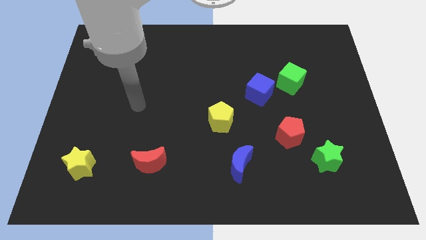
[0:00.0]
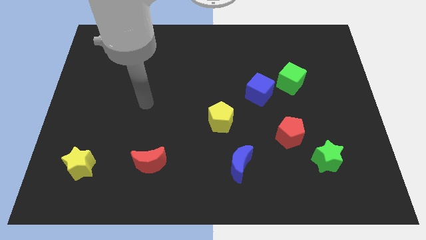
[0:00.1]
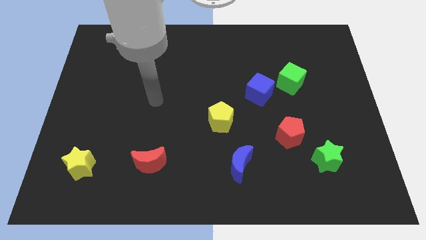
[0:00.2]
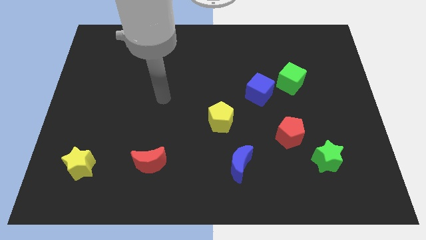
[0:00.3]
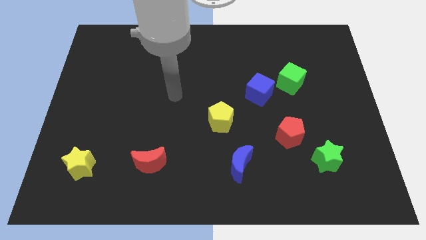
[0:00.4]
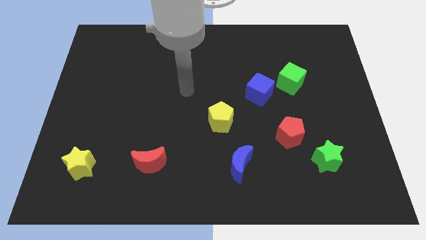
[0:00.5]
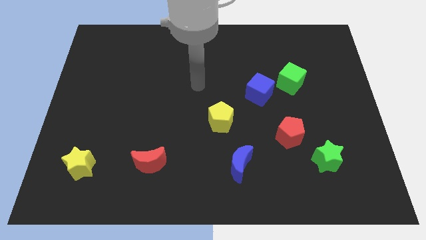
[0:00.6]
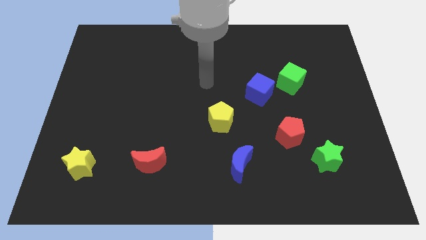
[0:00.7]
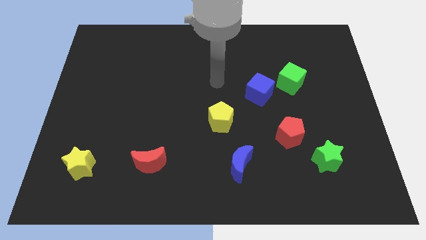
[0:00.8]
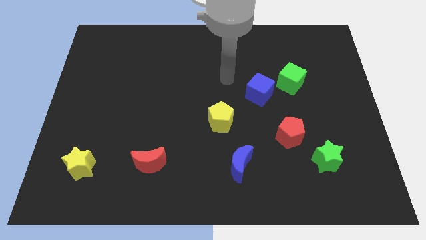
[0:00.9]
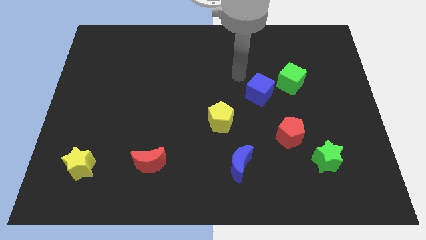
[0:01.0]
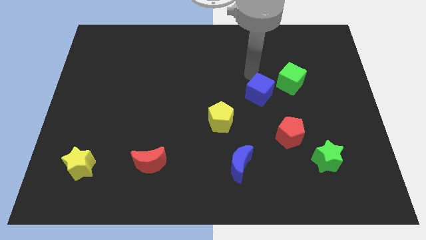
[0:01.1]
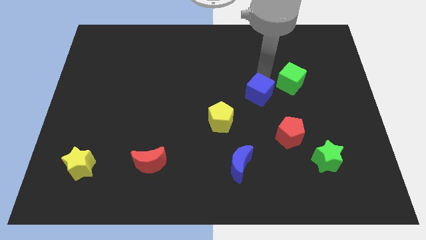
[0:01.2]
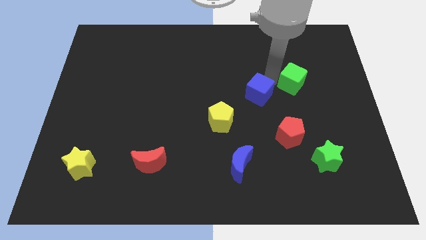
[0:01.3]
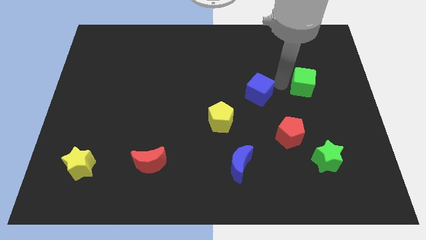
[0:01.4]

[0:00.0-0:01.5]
separate the blue cube from the green cube

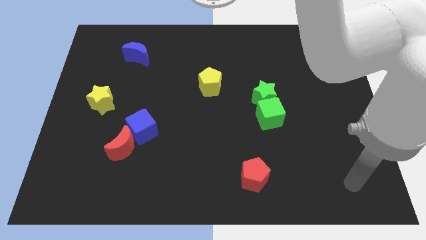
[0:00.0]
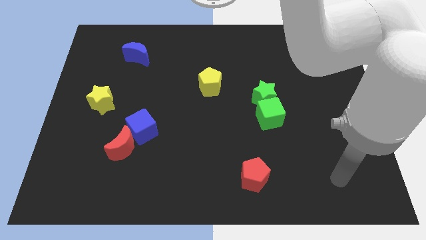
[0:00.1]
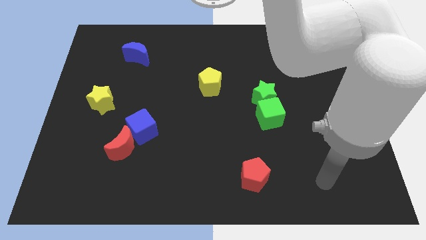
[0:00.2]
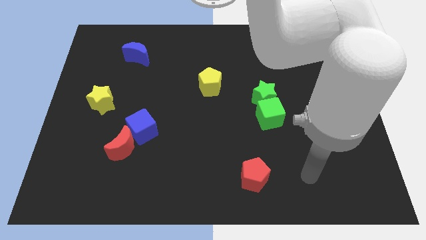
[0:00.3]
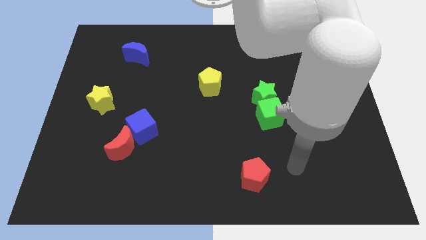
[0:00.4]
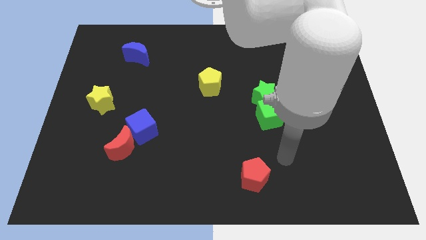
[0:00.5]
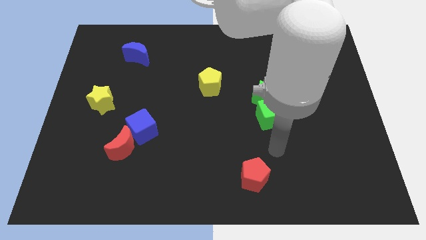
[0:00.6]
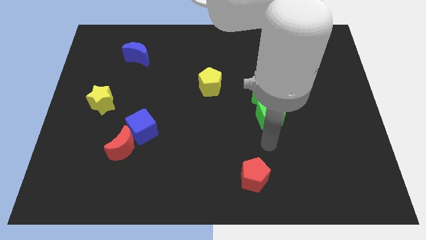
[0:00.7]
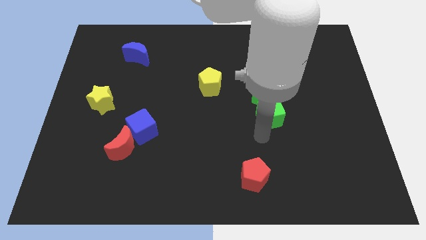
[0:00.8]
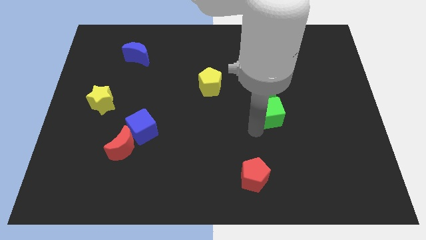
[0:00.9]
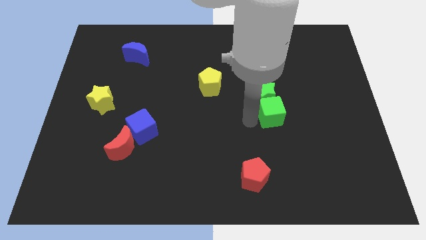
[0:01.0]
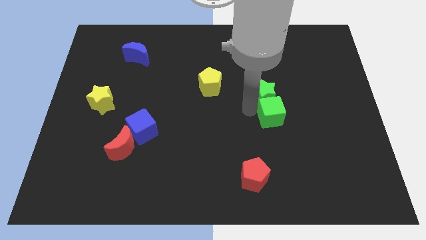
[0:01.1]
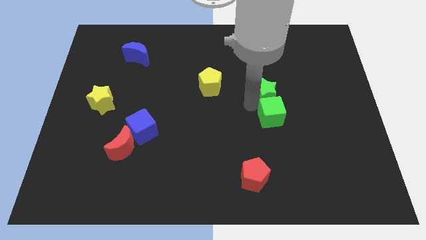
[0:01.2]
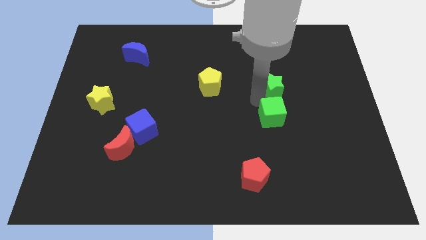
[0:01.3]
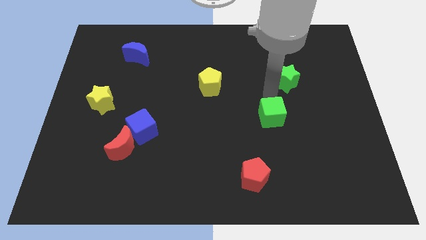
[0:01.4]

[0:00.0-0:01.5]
pull the green cube apart from the green star

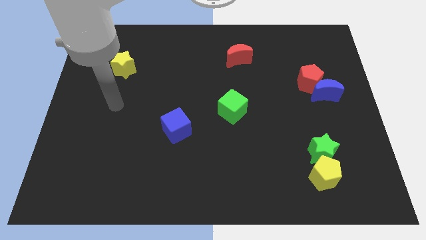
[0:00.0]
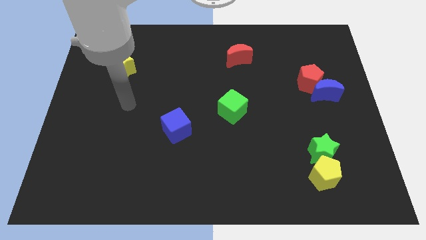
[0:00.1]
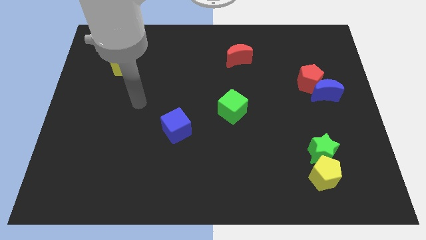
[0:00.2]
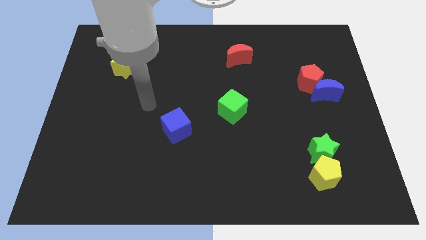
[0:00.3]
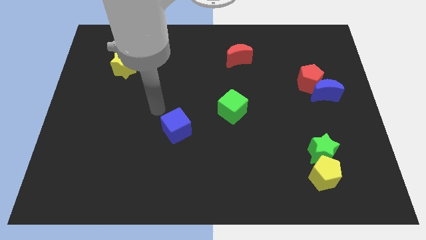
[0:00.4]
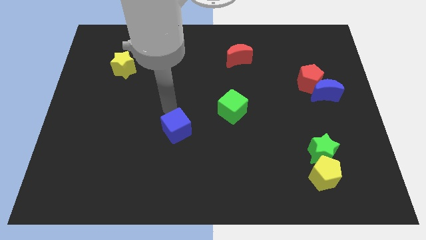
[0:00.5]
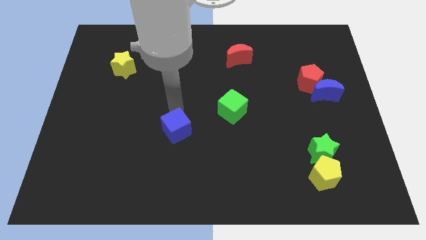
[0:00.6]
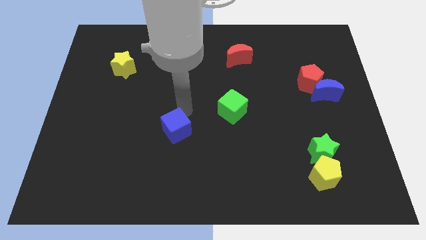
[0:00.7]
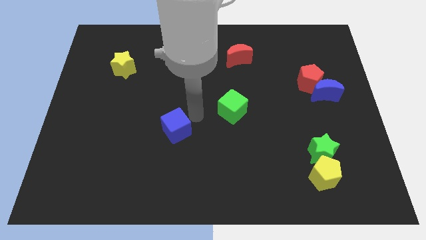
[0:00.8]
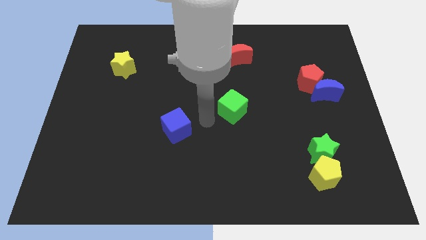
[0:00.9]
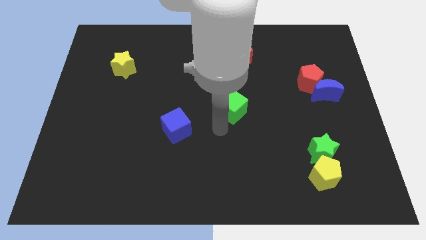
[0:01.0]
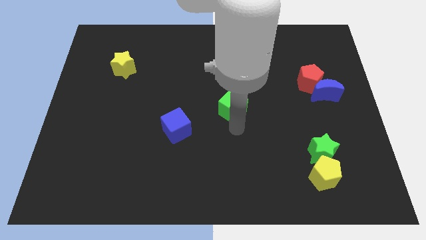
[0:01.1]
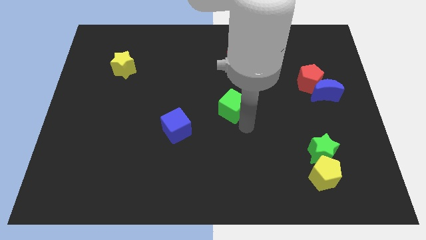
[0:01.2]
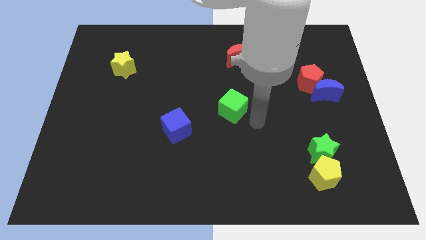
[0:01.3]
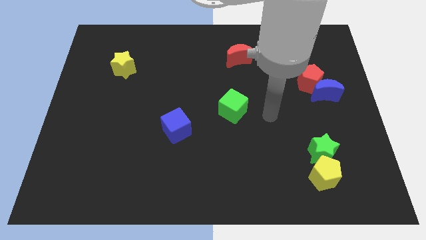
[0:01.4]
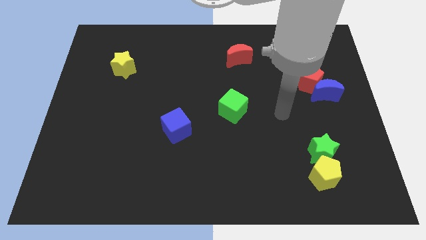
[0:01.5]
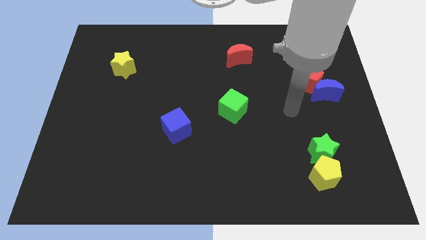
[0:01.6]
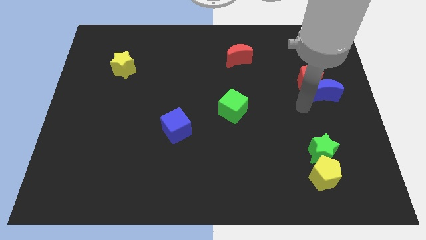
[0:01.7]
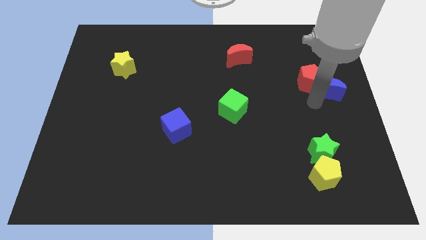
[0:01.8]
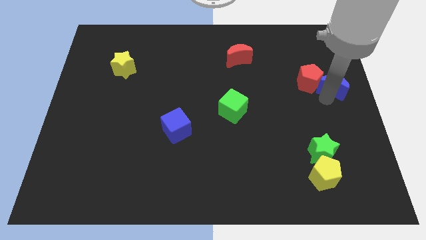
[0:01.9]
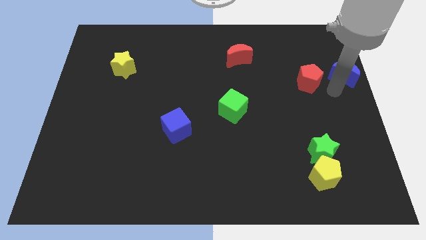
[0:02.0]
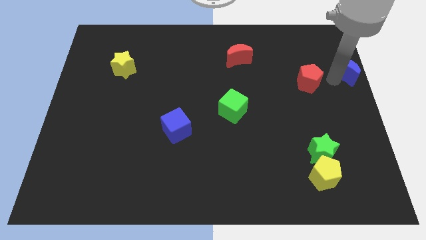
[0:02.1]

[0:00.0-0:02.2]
pull the red pentagon apart from the blue moon

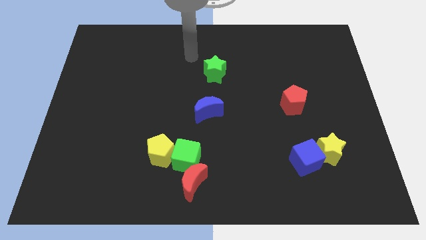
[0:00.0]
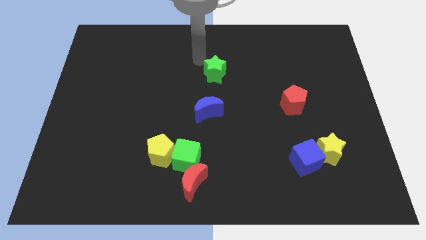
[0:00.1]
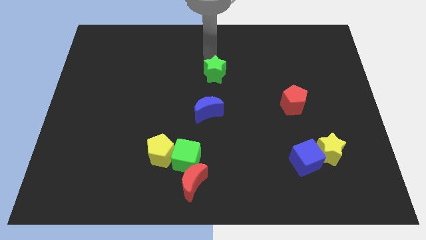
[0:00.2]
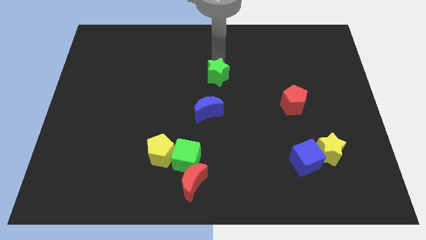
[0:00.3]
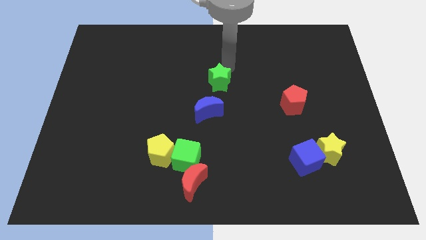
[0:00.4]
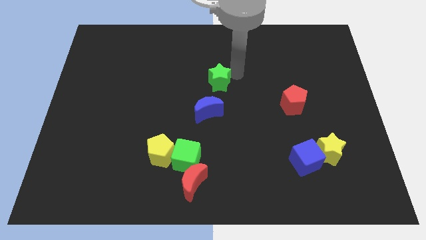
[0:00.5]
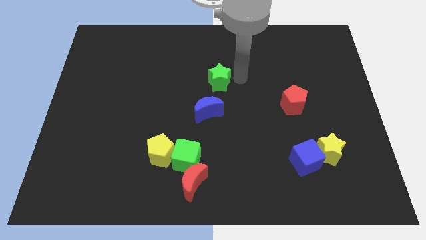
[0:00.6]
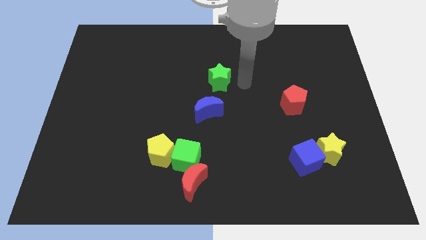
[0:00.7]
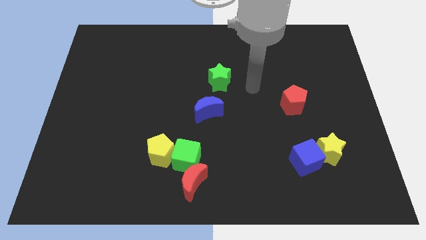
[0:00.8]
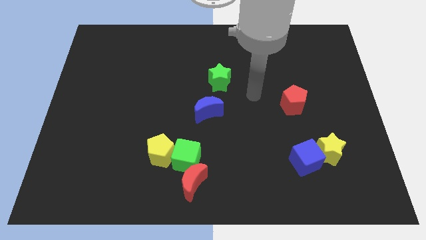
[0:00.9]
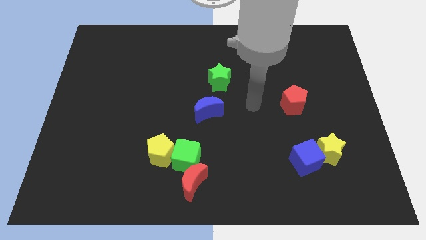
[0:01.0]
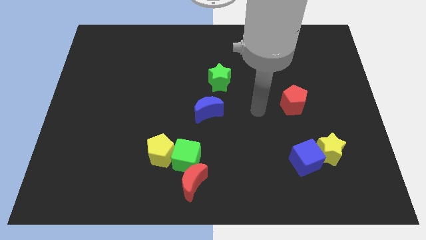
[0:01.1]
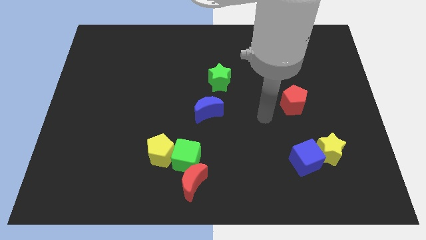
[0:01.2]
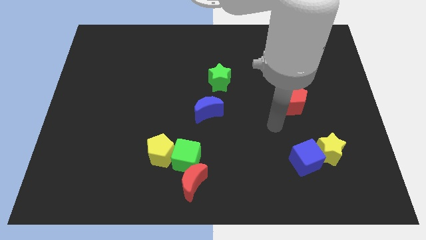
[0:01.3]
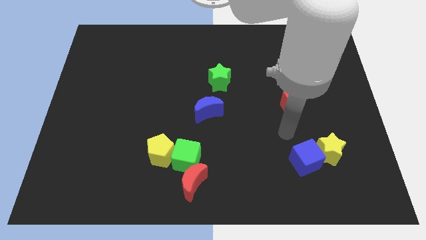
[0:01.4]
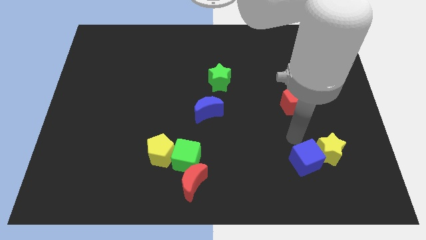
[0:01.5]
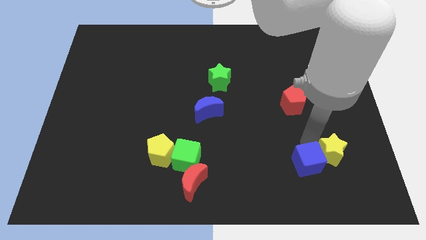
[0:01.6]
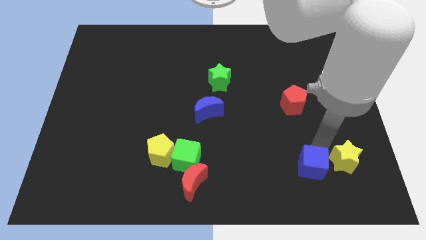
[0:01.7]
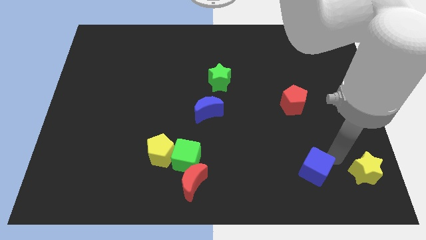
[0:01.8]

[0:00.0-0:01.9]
pull the blue cube apart from the yellow star

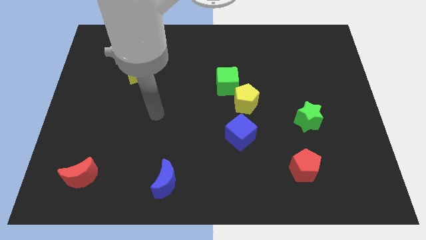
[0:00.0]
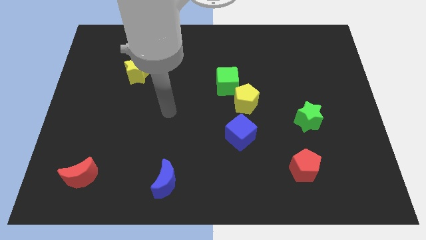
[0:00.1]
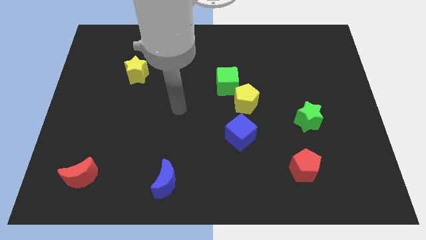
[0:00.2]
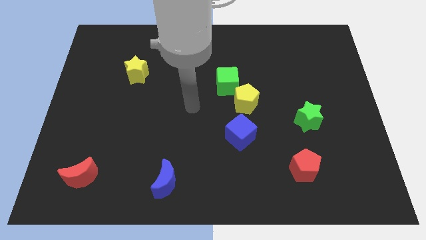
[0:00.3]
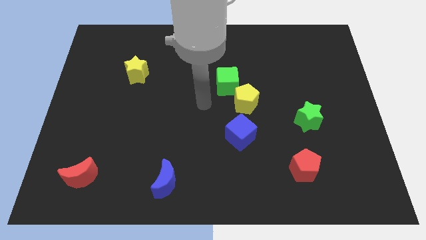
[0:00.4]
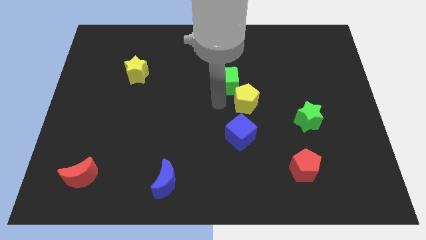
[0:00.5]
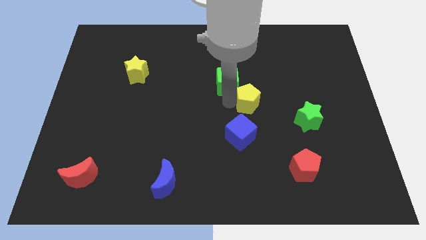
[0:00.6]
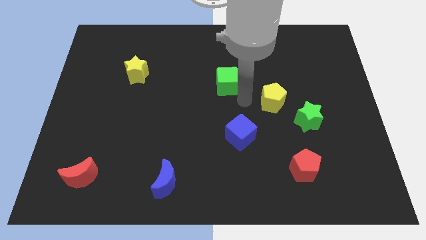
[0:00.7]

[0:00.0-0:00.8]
pull the green cube apart from the yellow pentagon

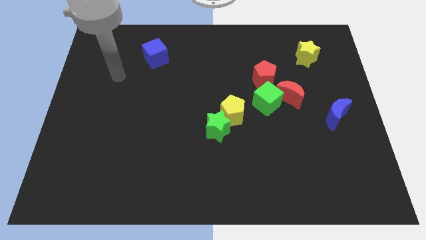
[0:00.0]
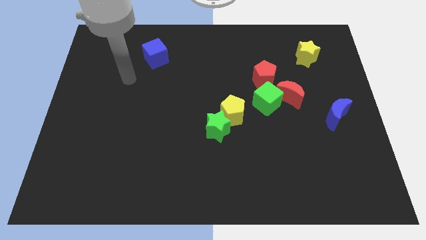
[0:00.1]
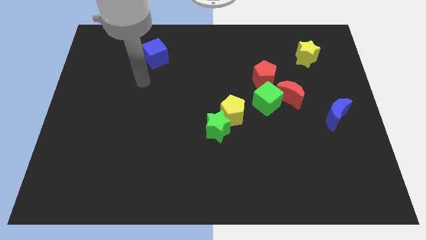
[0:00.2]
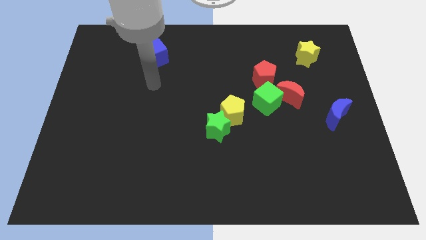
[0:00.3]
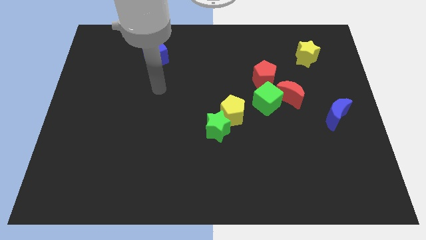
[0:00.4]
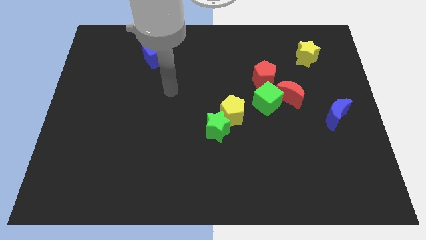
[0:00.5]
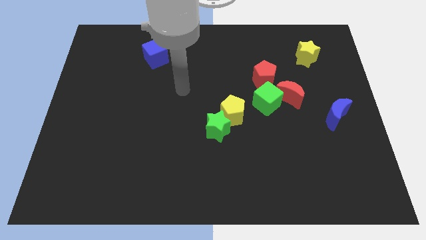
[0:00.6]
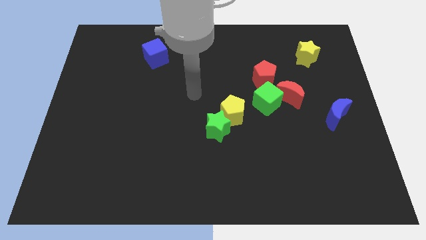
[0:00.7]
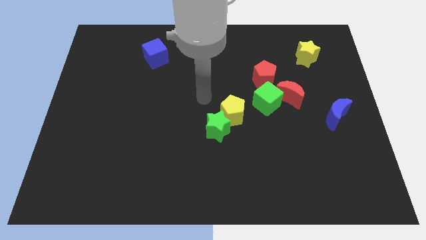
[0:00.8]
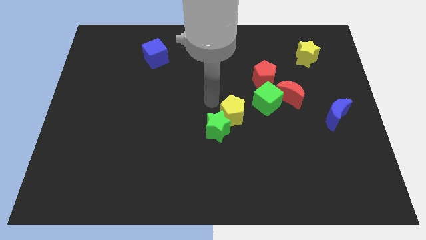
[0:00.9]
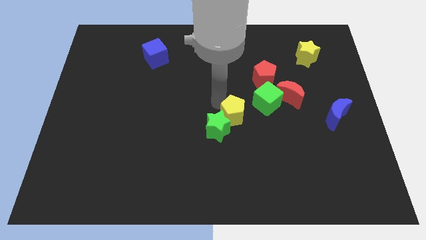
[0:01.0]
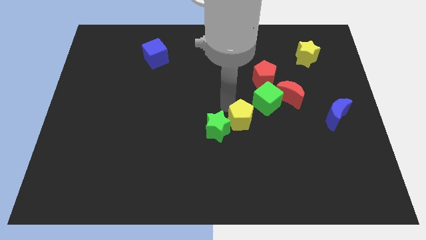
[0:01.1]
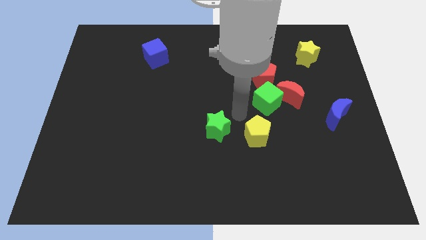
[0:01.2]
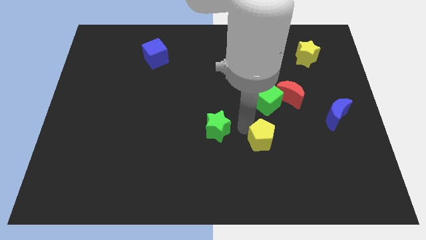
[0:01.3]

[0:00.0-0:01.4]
separate the green star from the yellow pentagon
